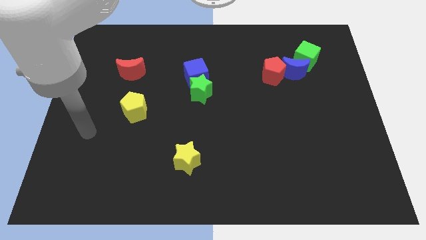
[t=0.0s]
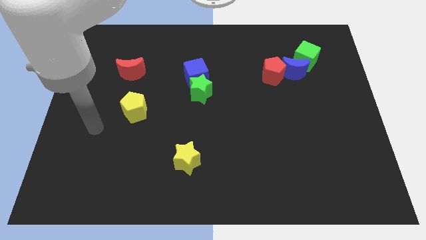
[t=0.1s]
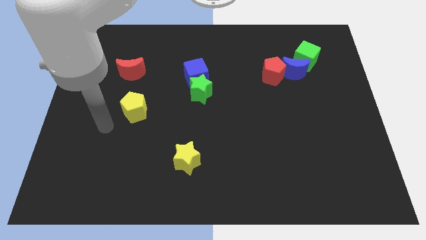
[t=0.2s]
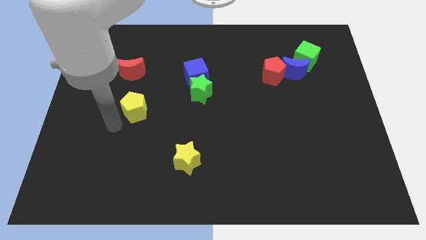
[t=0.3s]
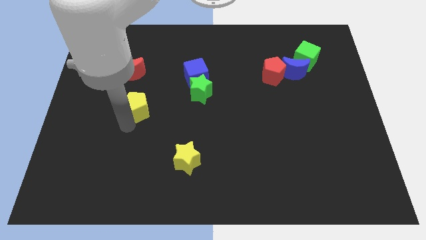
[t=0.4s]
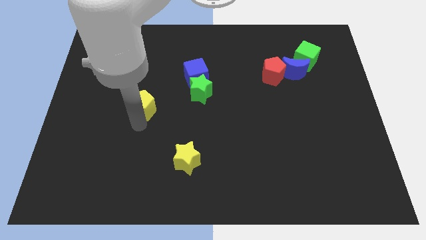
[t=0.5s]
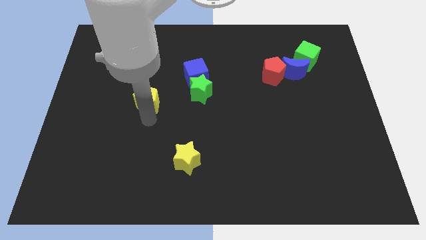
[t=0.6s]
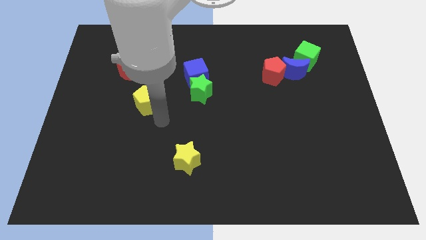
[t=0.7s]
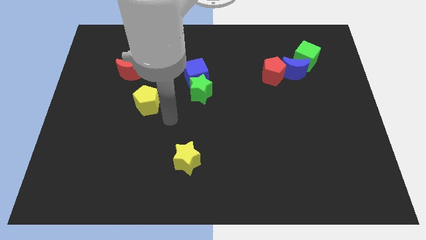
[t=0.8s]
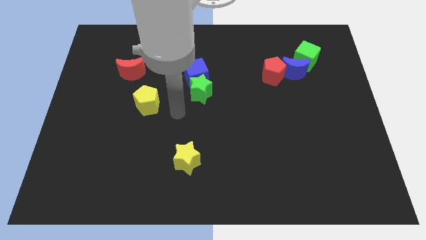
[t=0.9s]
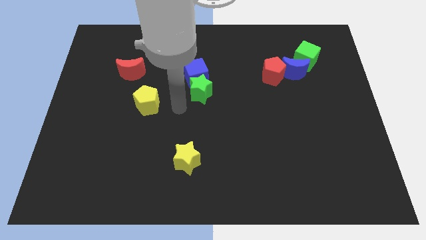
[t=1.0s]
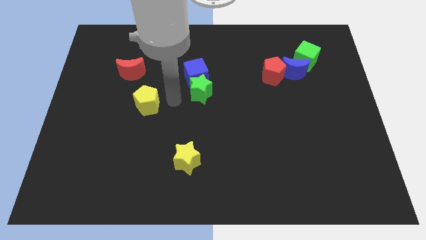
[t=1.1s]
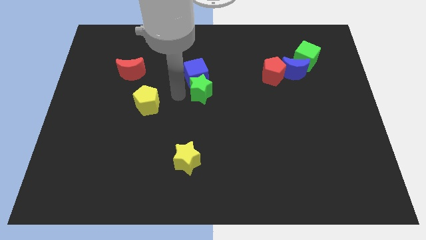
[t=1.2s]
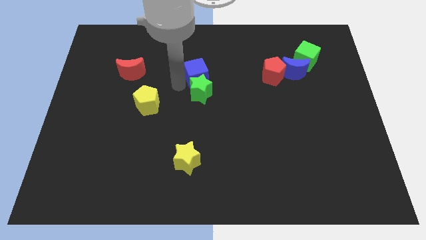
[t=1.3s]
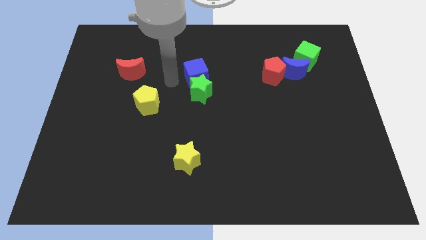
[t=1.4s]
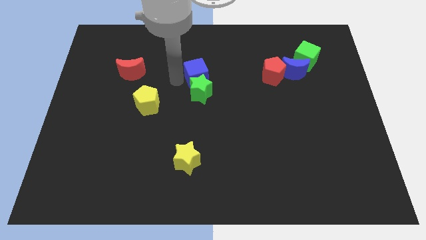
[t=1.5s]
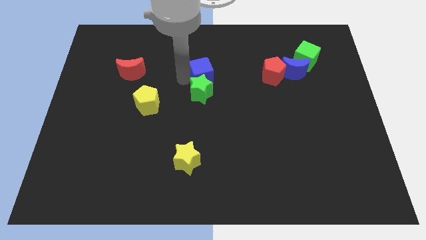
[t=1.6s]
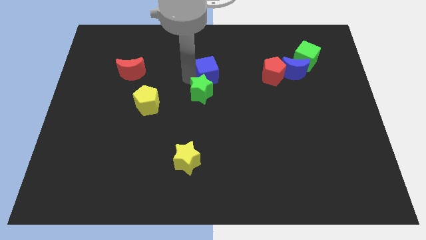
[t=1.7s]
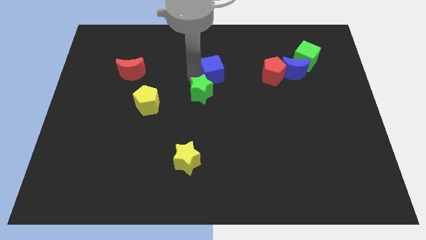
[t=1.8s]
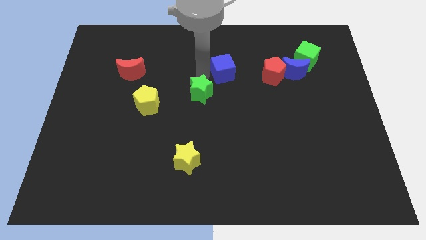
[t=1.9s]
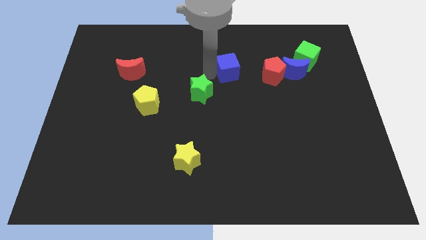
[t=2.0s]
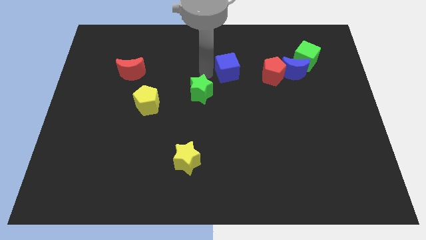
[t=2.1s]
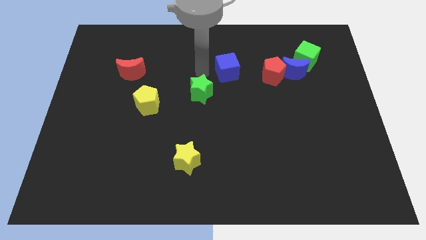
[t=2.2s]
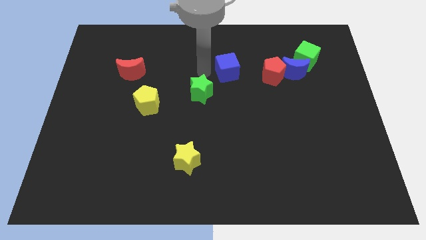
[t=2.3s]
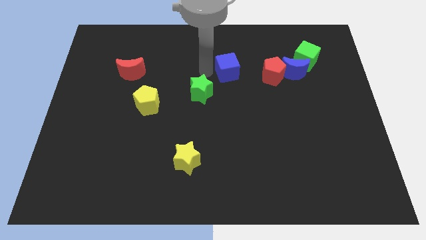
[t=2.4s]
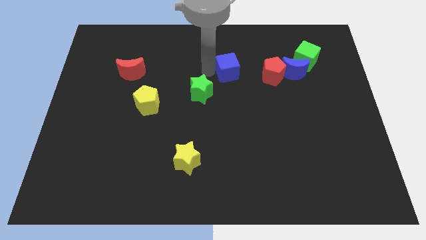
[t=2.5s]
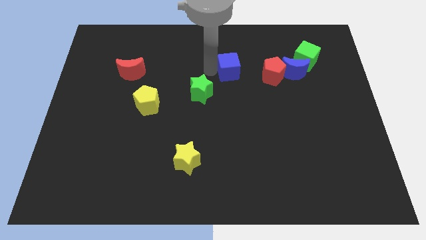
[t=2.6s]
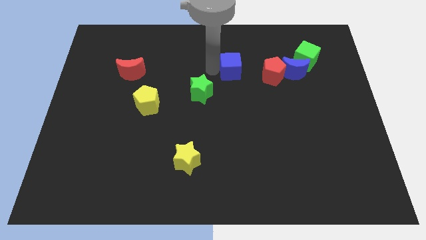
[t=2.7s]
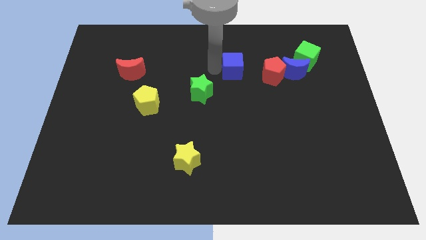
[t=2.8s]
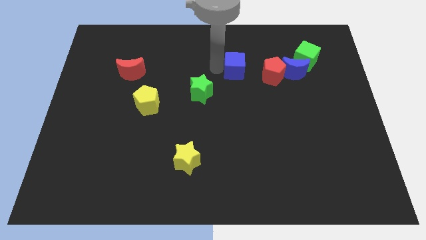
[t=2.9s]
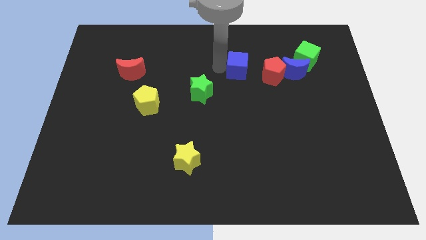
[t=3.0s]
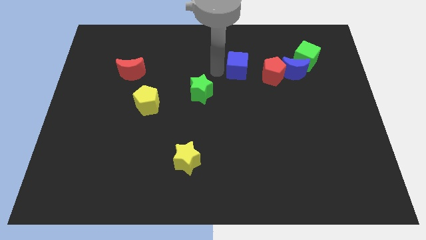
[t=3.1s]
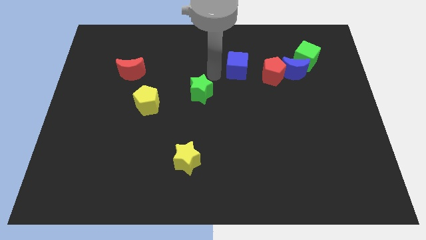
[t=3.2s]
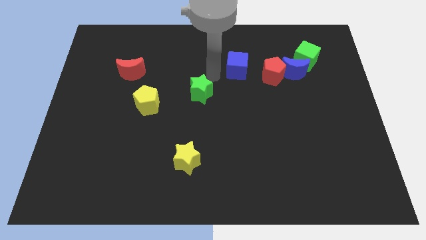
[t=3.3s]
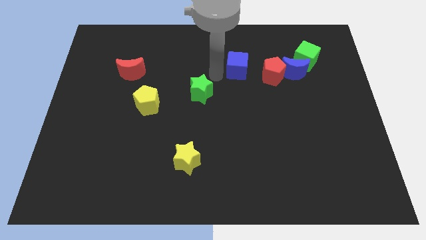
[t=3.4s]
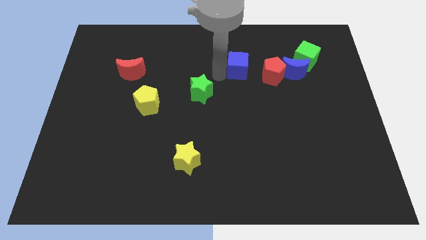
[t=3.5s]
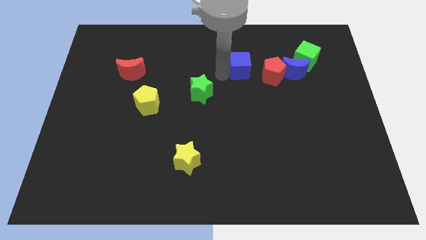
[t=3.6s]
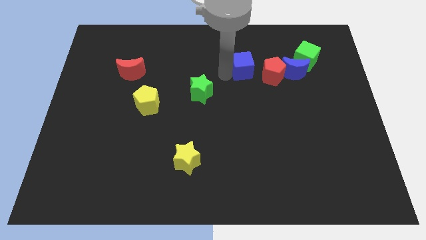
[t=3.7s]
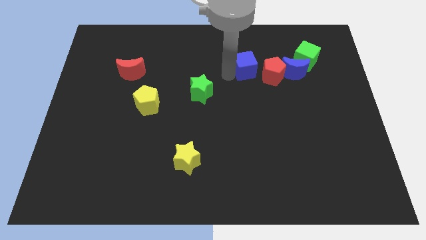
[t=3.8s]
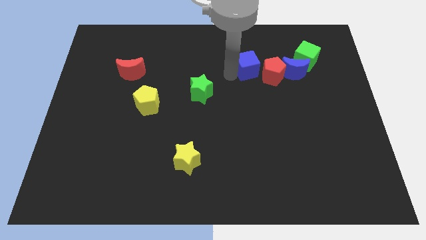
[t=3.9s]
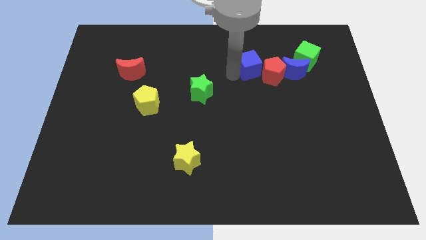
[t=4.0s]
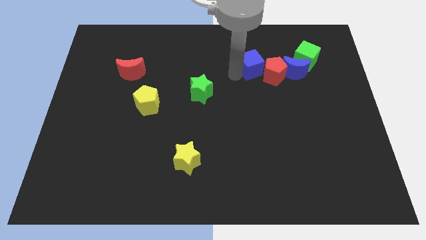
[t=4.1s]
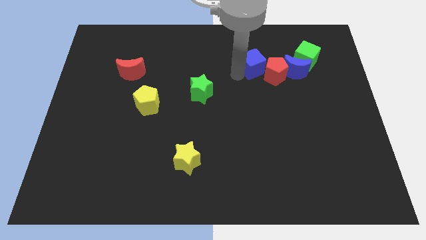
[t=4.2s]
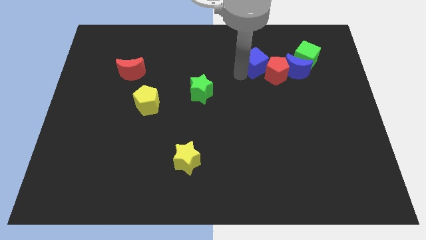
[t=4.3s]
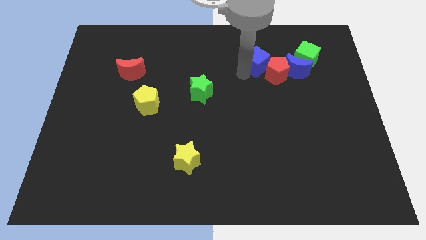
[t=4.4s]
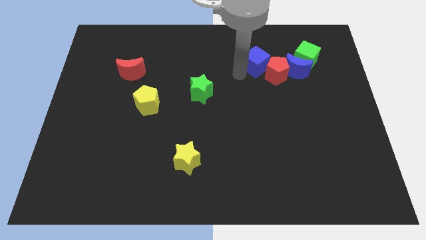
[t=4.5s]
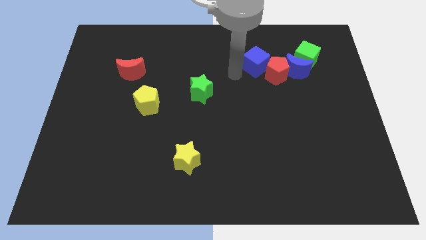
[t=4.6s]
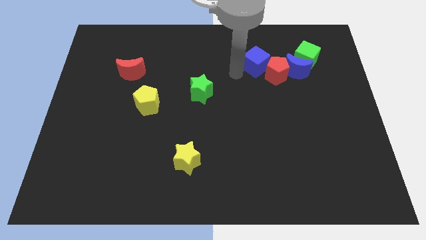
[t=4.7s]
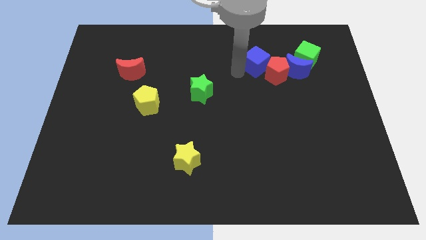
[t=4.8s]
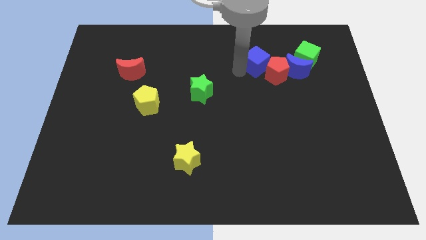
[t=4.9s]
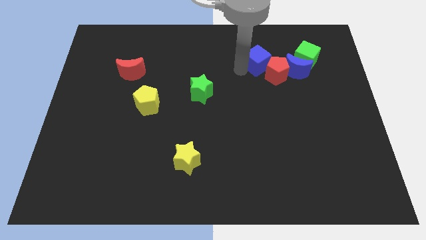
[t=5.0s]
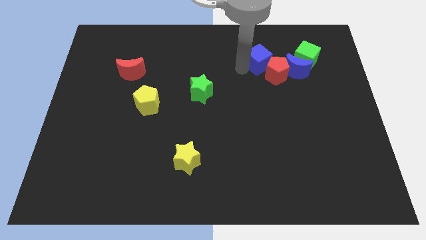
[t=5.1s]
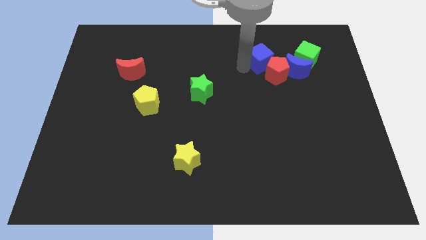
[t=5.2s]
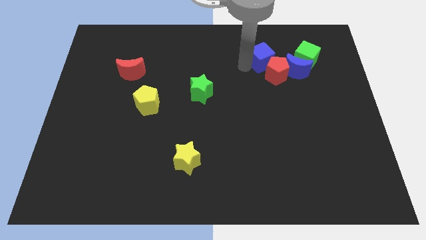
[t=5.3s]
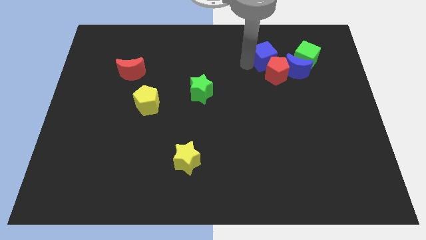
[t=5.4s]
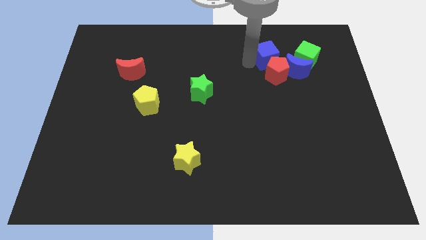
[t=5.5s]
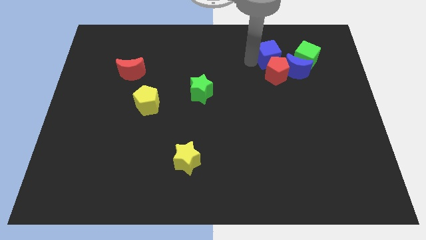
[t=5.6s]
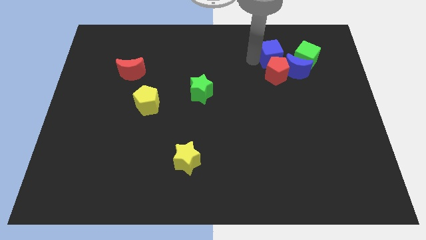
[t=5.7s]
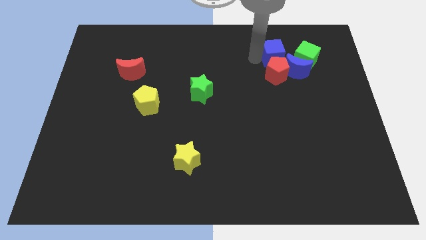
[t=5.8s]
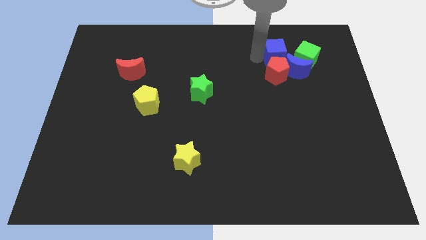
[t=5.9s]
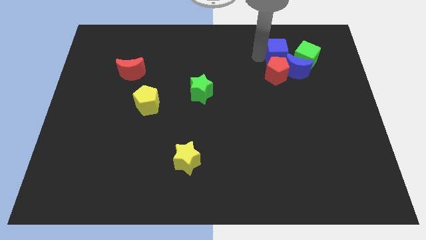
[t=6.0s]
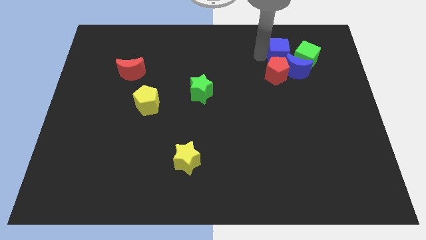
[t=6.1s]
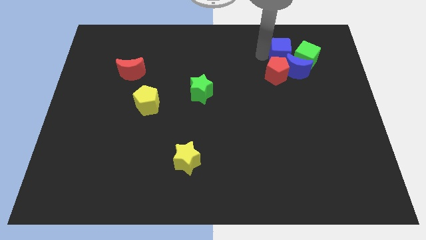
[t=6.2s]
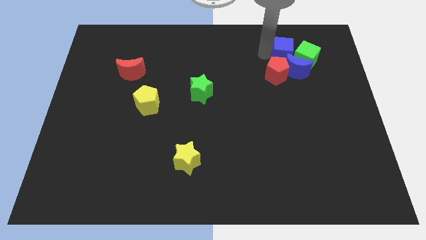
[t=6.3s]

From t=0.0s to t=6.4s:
slide the blue cube next to the green cube

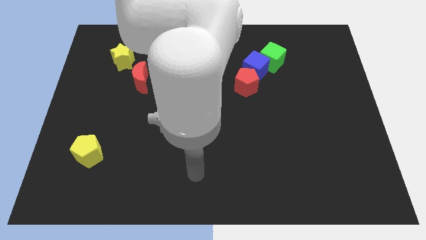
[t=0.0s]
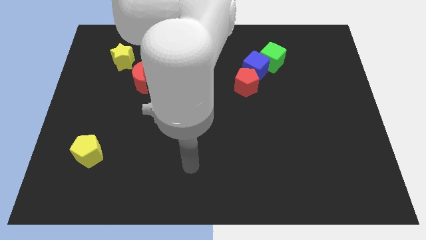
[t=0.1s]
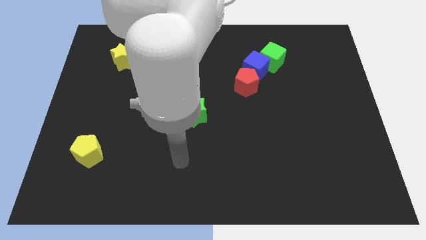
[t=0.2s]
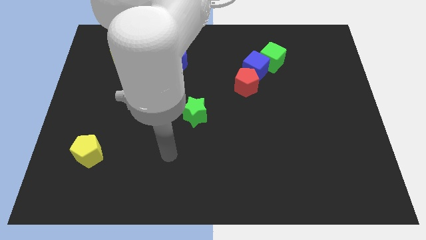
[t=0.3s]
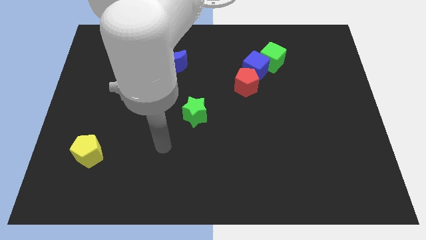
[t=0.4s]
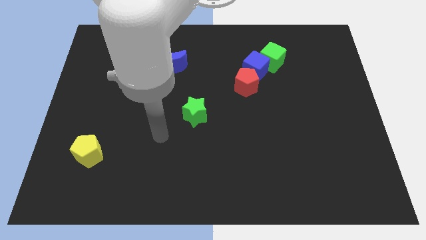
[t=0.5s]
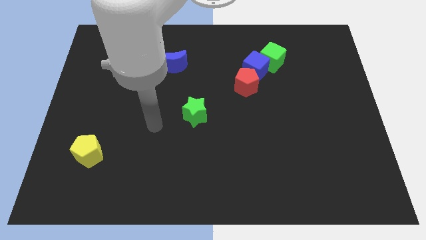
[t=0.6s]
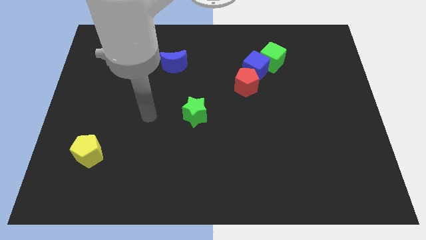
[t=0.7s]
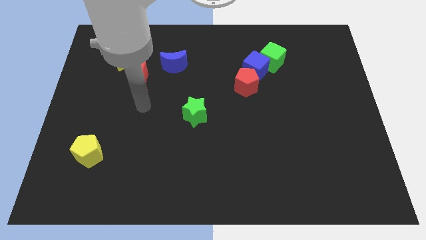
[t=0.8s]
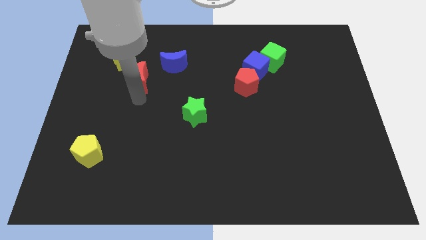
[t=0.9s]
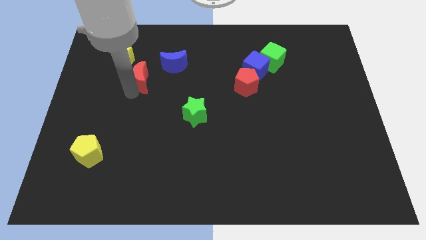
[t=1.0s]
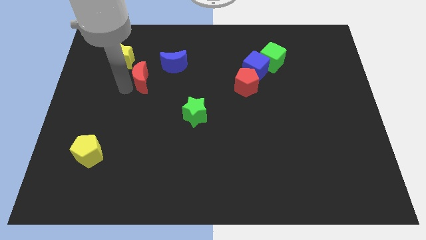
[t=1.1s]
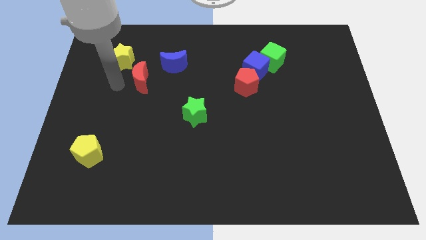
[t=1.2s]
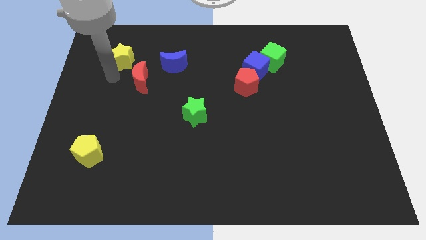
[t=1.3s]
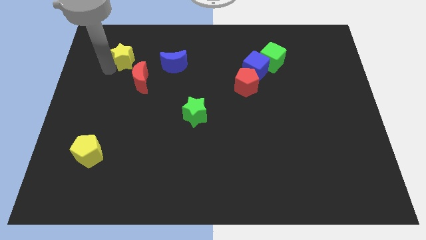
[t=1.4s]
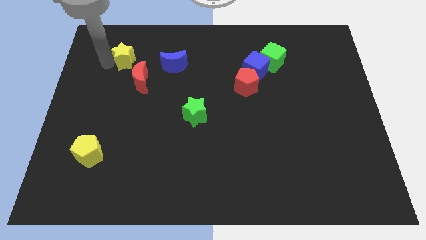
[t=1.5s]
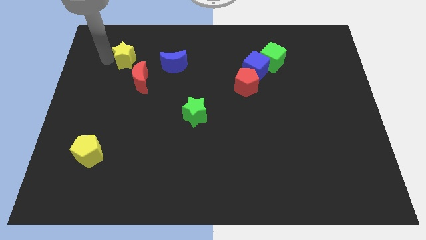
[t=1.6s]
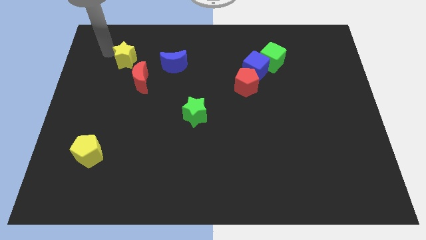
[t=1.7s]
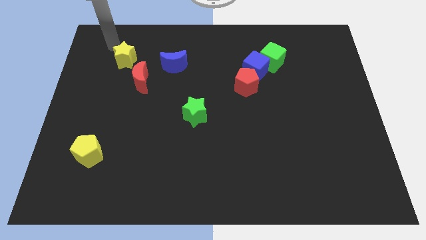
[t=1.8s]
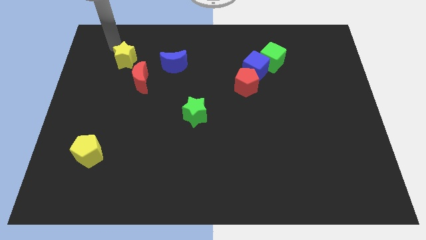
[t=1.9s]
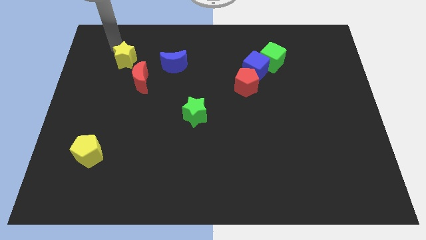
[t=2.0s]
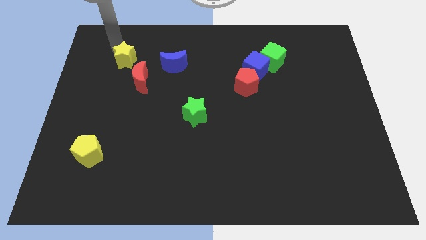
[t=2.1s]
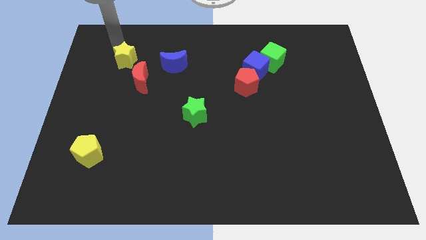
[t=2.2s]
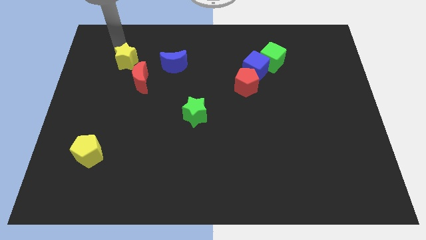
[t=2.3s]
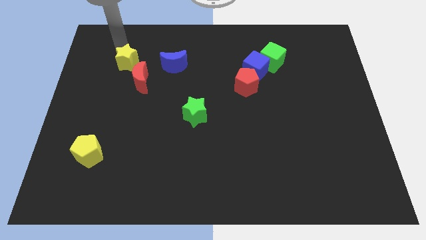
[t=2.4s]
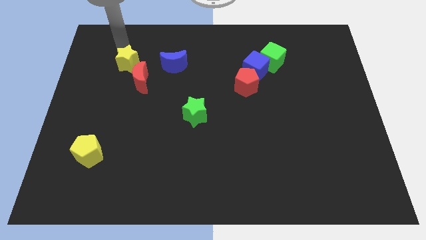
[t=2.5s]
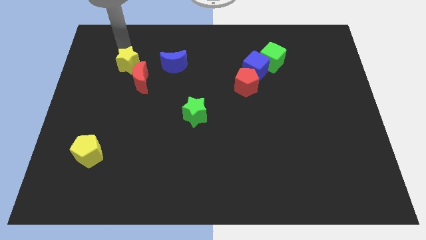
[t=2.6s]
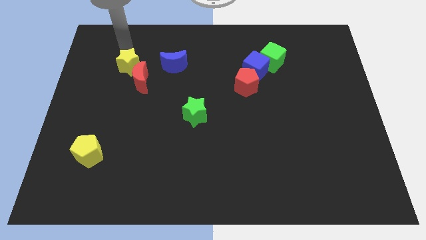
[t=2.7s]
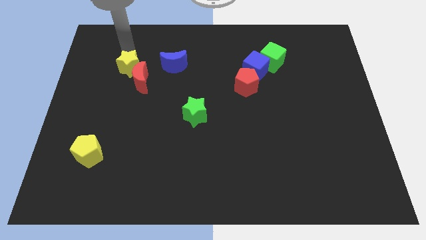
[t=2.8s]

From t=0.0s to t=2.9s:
push the yellow star to the red moon
